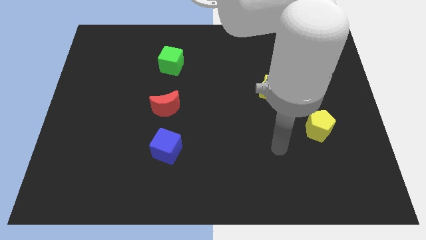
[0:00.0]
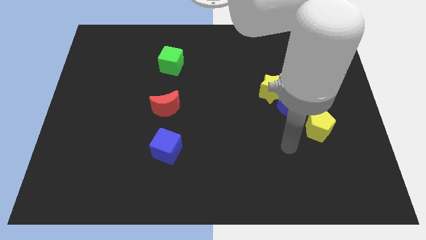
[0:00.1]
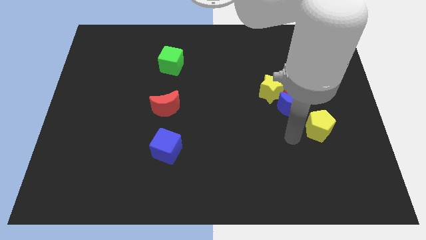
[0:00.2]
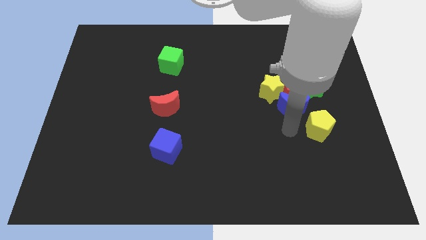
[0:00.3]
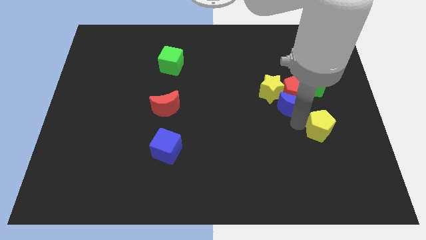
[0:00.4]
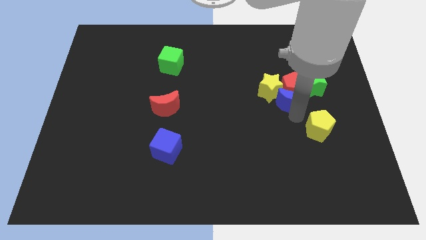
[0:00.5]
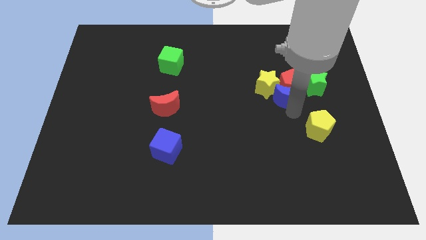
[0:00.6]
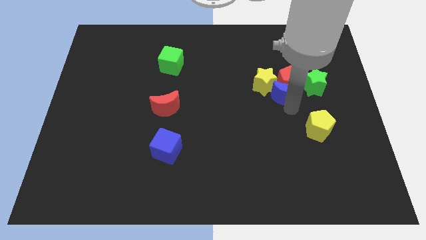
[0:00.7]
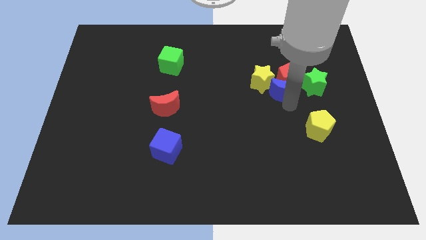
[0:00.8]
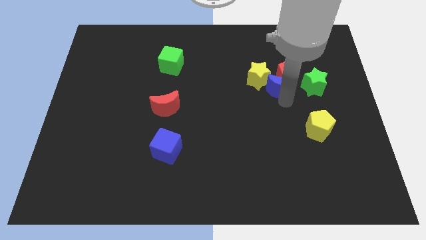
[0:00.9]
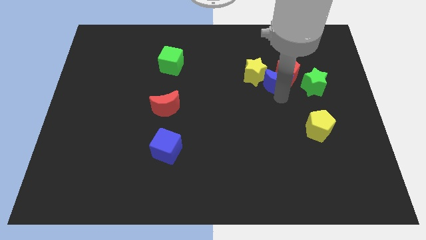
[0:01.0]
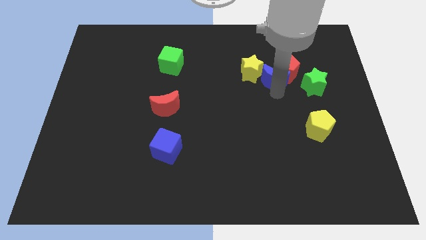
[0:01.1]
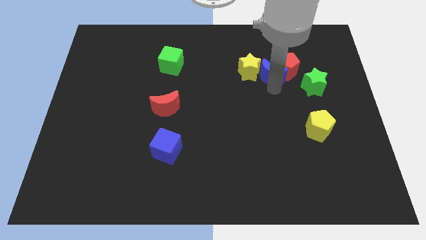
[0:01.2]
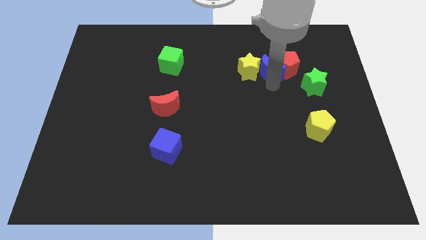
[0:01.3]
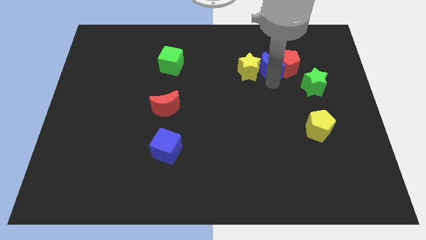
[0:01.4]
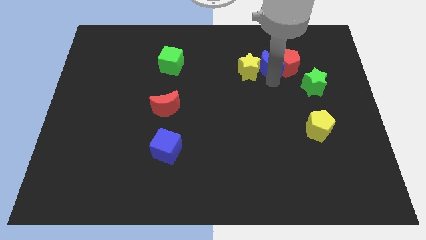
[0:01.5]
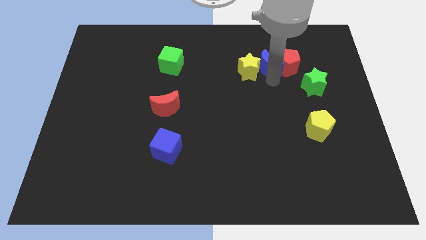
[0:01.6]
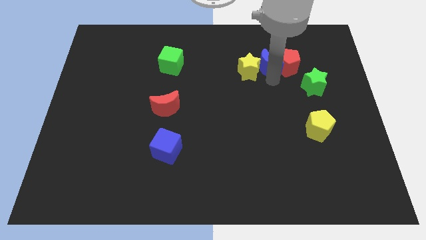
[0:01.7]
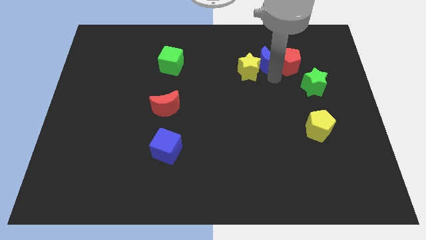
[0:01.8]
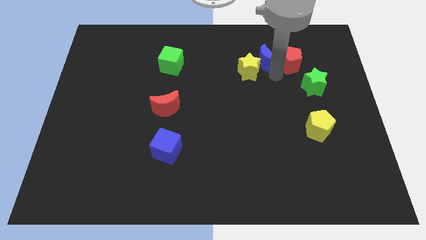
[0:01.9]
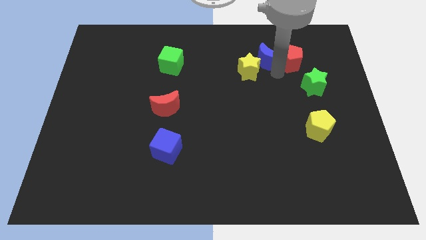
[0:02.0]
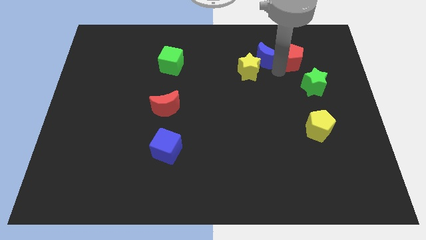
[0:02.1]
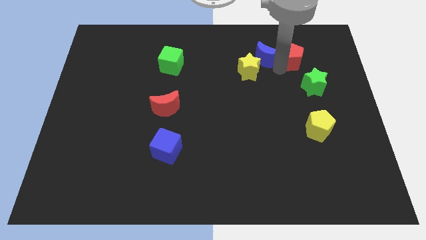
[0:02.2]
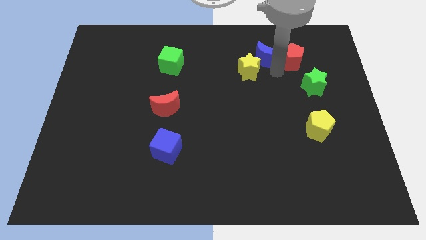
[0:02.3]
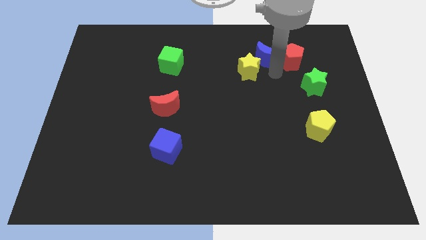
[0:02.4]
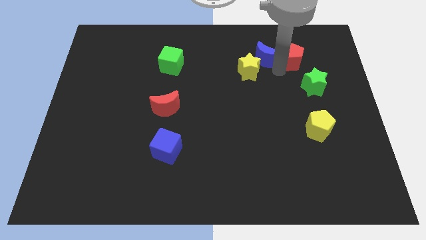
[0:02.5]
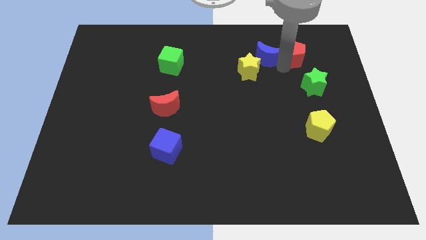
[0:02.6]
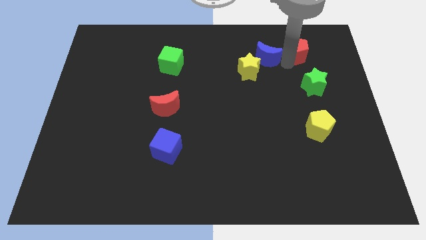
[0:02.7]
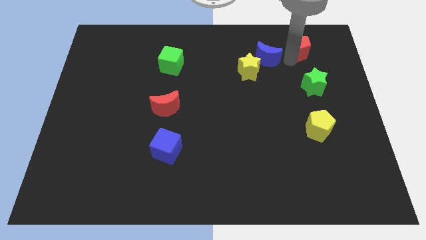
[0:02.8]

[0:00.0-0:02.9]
pull the red pentagon apart from the blue moon, yellow star, and green star

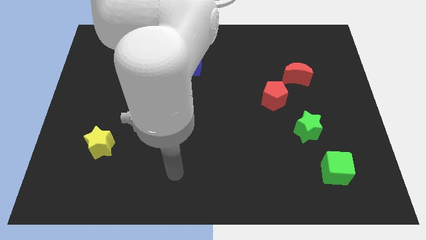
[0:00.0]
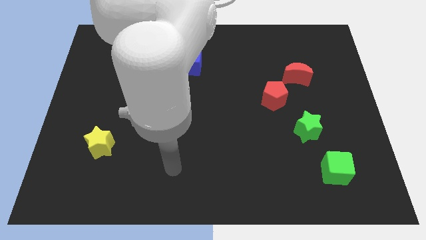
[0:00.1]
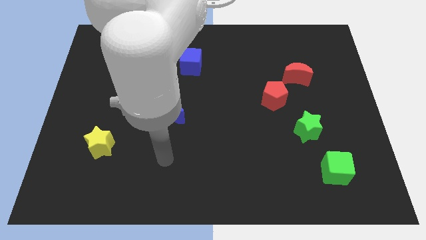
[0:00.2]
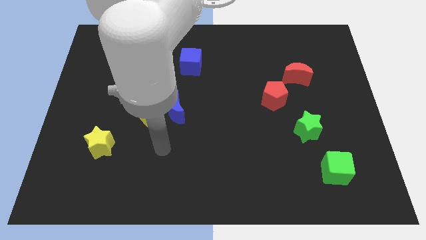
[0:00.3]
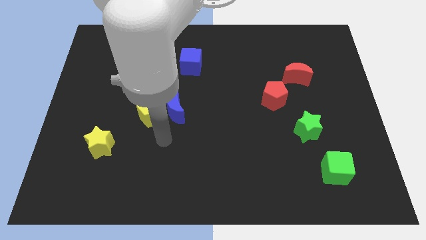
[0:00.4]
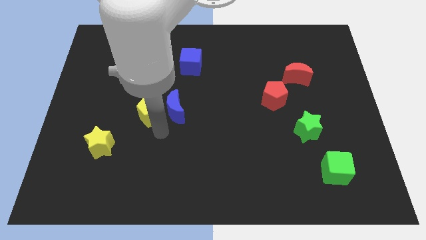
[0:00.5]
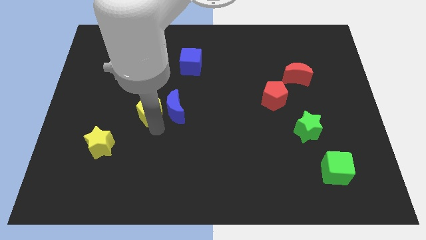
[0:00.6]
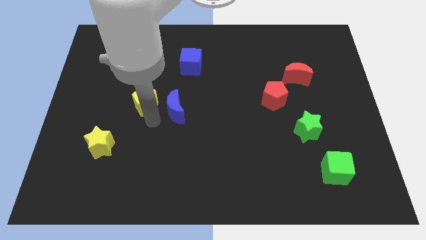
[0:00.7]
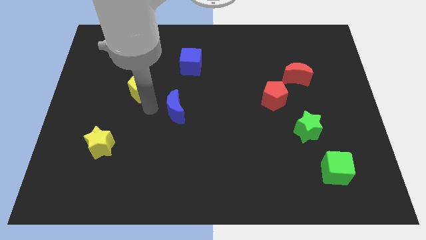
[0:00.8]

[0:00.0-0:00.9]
pull the blue moon apart from the yellow pentagon

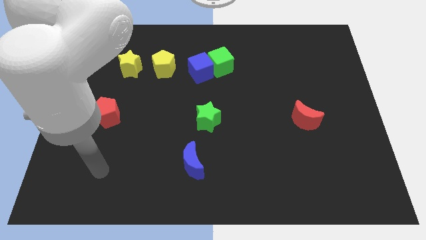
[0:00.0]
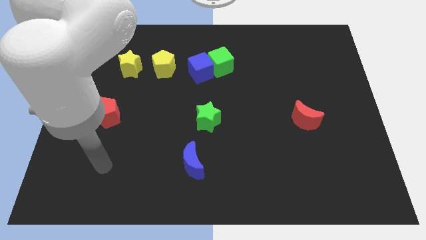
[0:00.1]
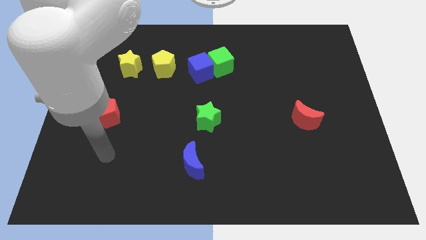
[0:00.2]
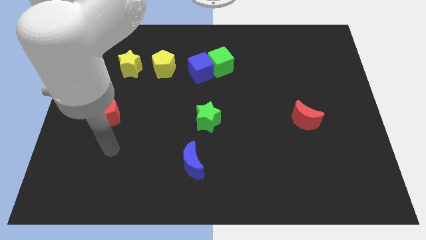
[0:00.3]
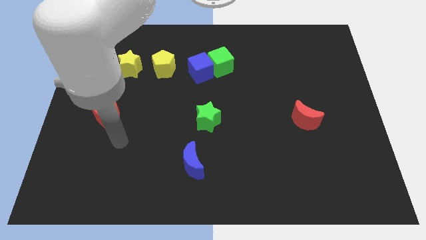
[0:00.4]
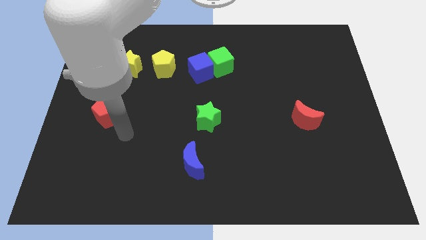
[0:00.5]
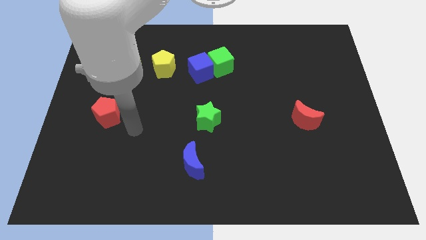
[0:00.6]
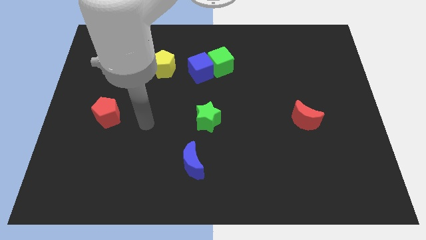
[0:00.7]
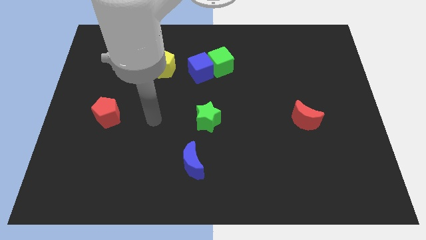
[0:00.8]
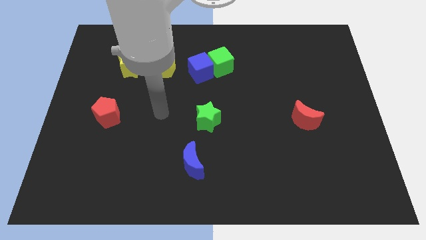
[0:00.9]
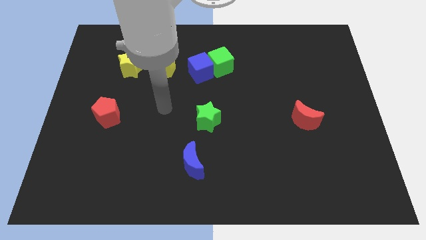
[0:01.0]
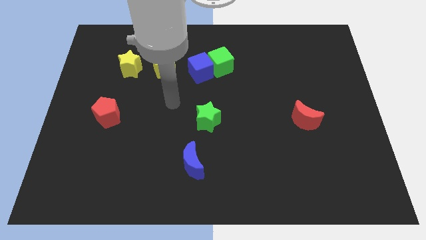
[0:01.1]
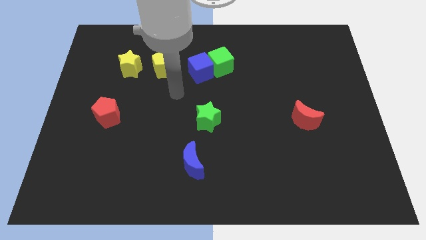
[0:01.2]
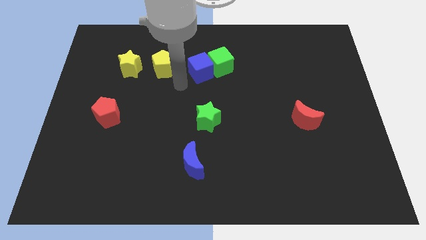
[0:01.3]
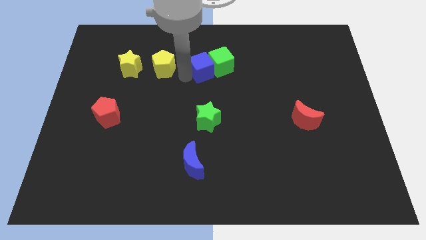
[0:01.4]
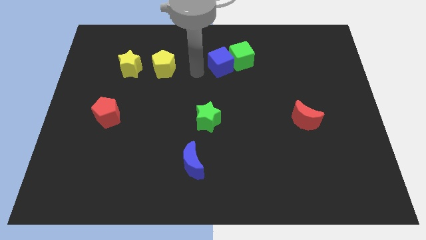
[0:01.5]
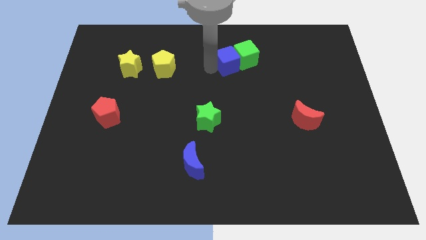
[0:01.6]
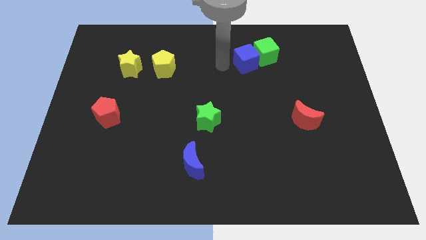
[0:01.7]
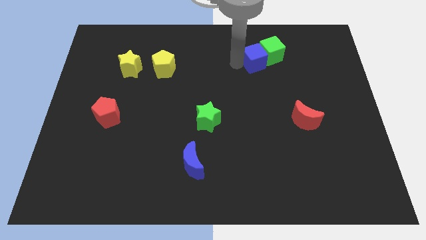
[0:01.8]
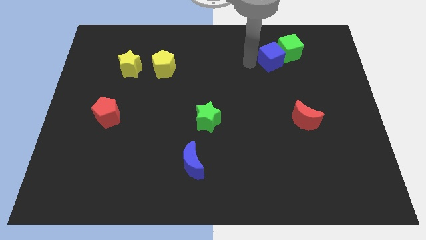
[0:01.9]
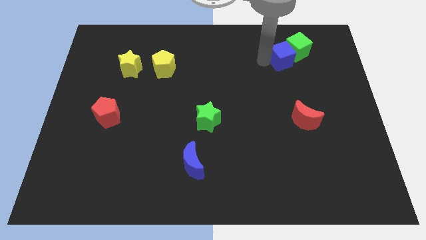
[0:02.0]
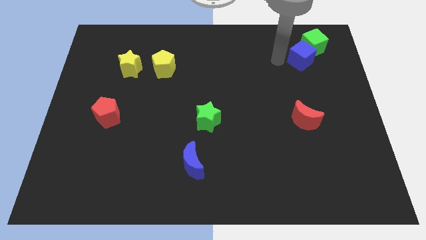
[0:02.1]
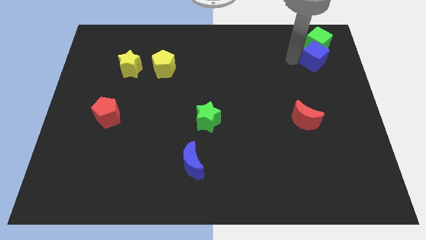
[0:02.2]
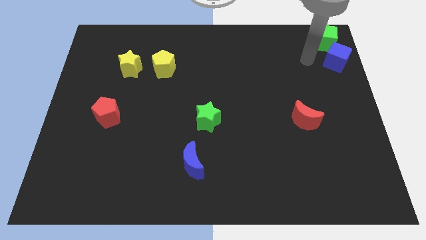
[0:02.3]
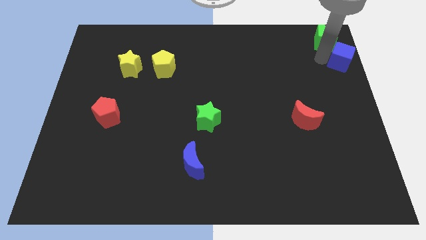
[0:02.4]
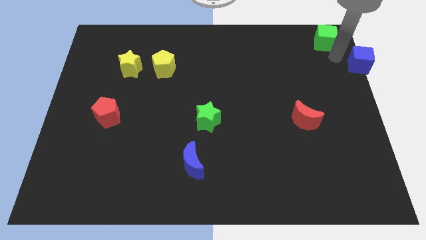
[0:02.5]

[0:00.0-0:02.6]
move the green cube away from the blue cube

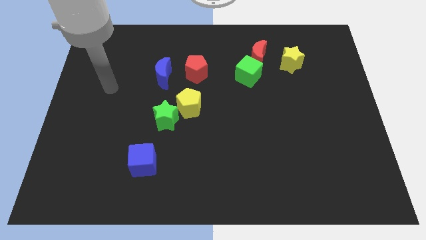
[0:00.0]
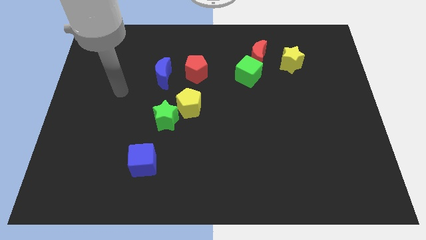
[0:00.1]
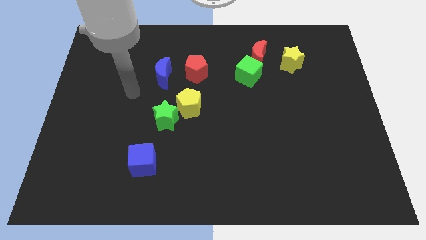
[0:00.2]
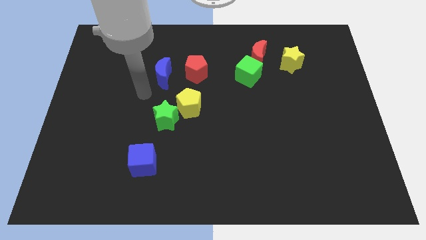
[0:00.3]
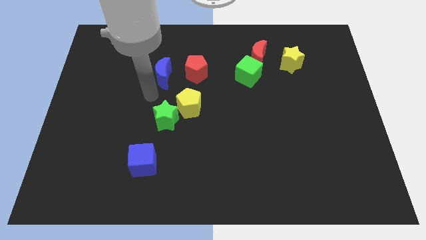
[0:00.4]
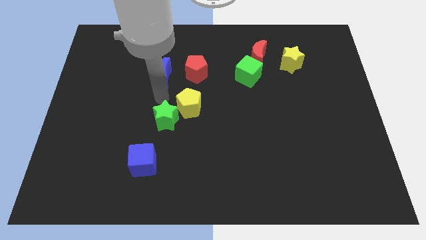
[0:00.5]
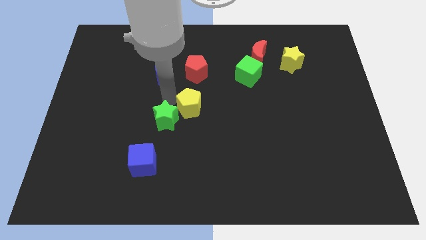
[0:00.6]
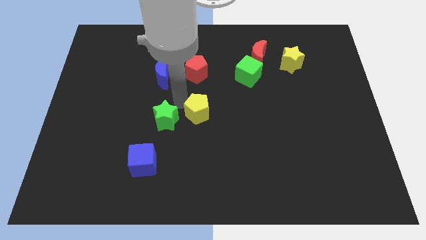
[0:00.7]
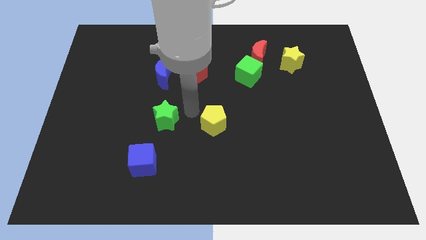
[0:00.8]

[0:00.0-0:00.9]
separate the green star from the yellow pentagon

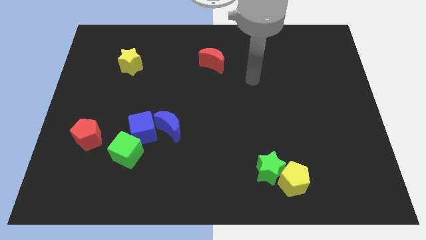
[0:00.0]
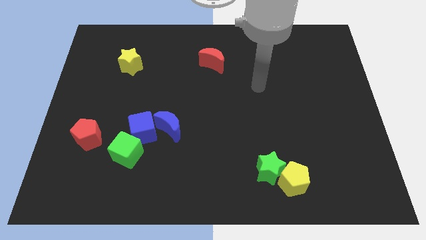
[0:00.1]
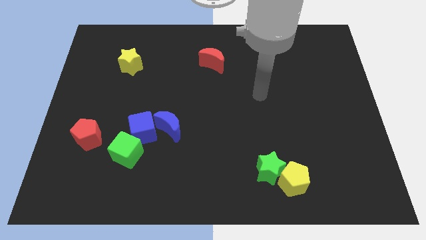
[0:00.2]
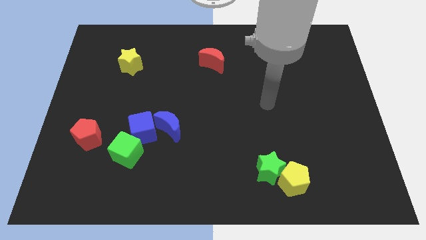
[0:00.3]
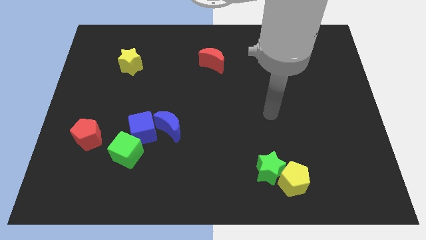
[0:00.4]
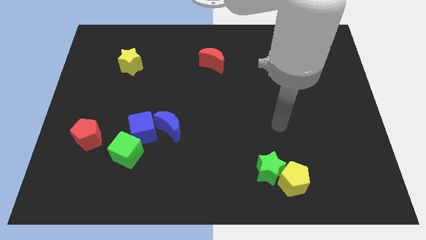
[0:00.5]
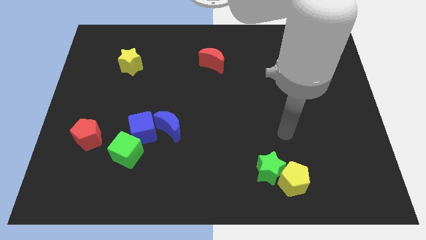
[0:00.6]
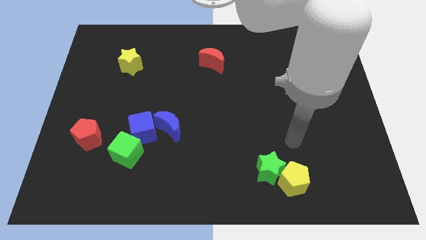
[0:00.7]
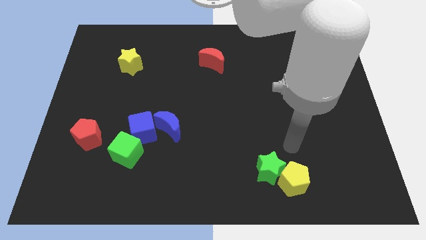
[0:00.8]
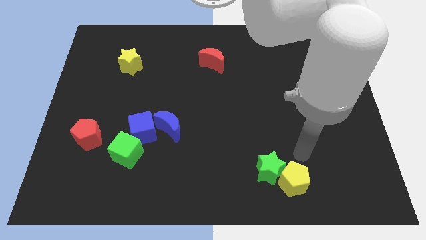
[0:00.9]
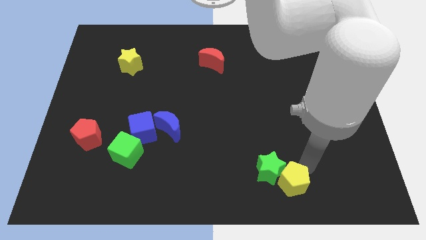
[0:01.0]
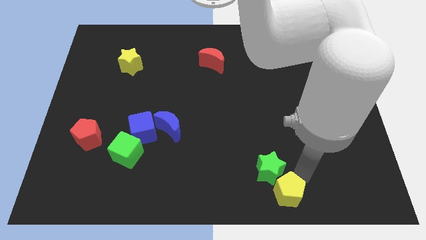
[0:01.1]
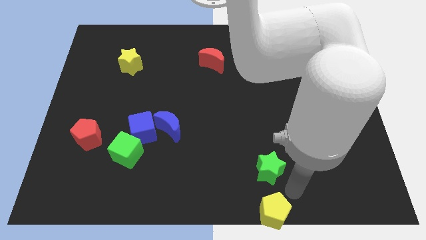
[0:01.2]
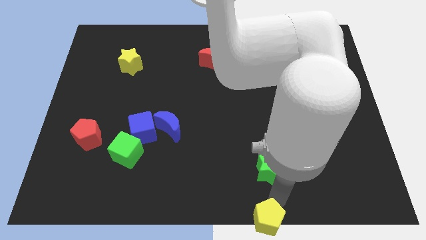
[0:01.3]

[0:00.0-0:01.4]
move the green star away from the yellow pentagon

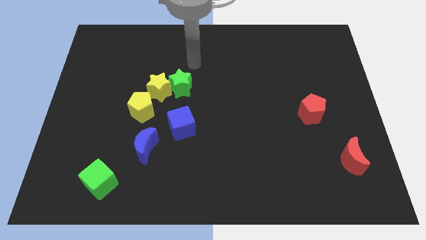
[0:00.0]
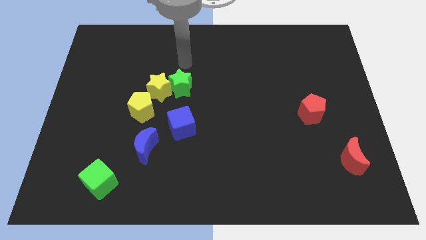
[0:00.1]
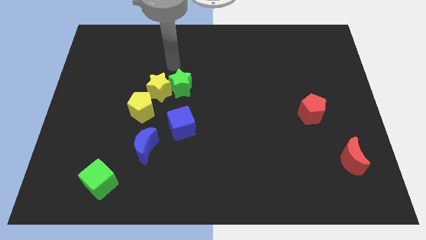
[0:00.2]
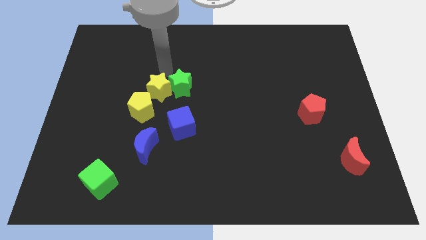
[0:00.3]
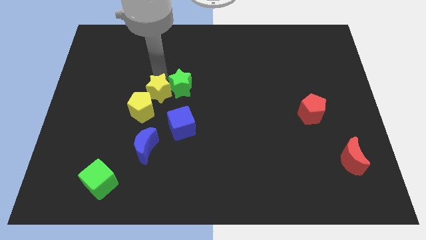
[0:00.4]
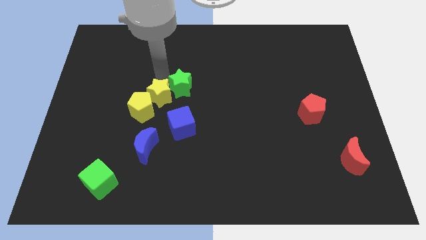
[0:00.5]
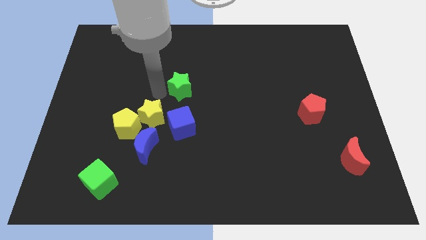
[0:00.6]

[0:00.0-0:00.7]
pull the green star apart from the yellow star

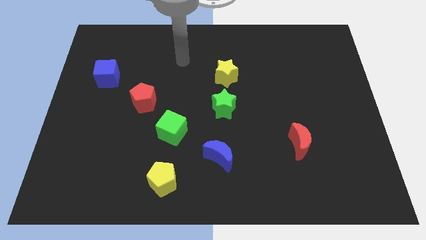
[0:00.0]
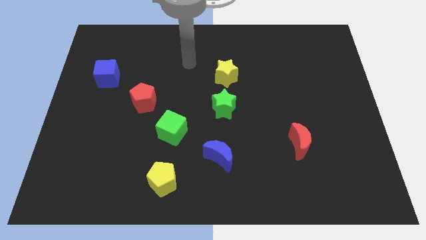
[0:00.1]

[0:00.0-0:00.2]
move the green star away from the yellow star
